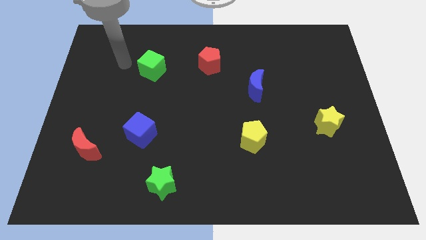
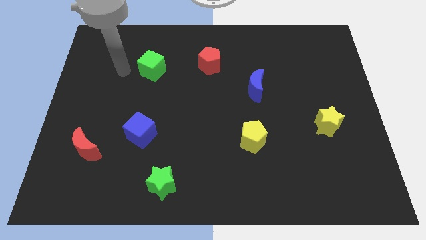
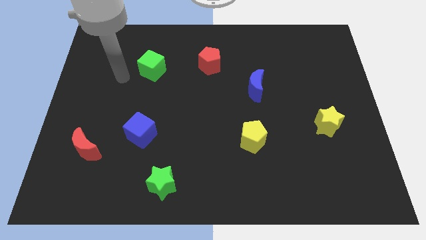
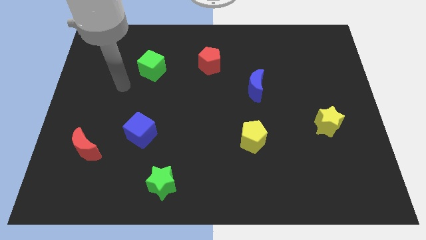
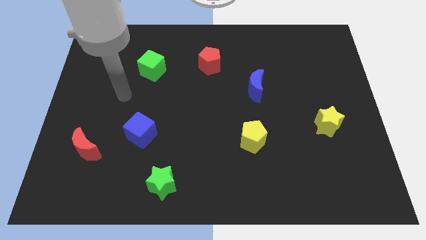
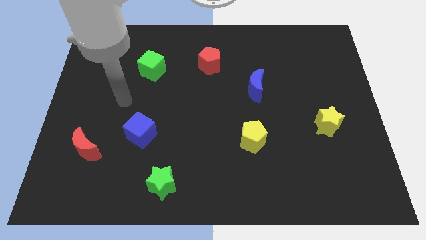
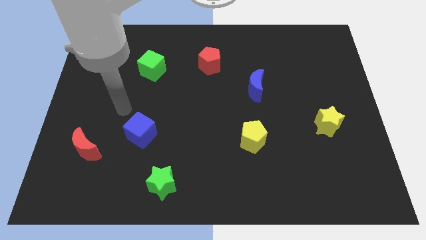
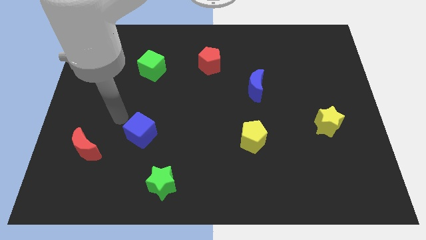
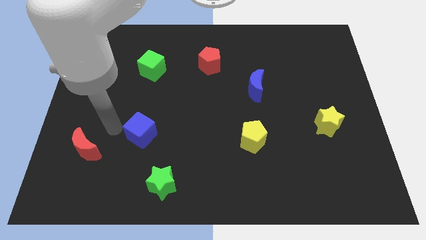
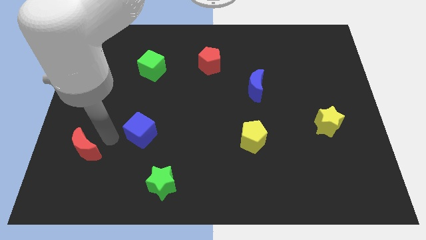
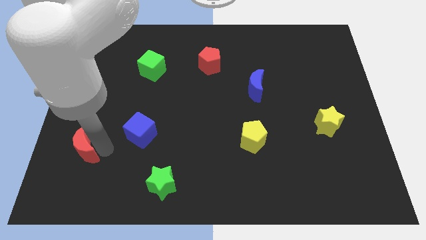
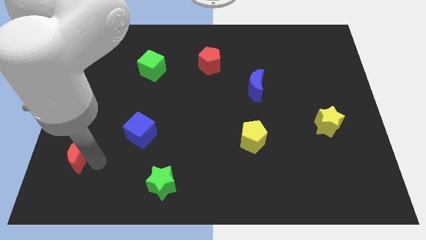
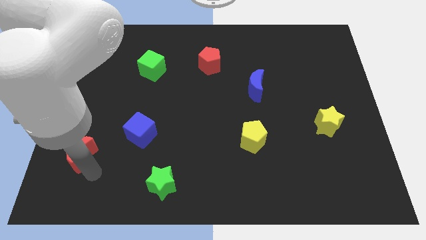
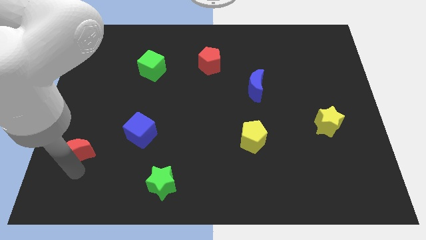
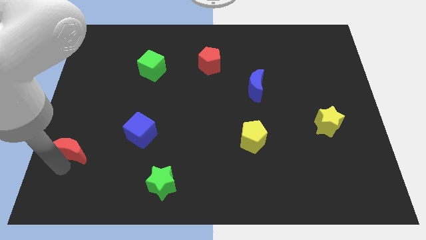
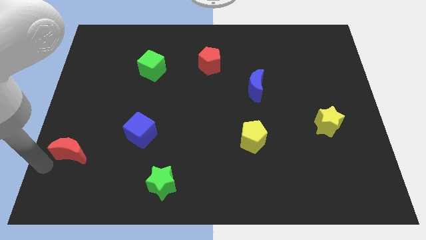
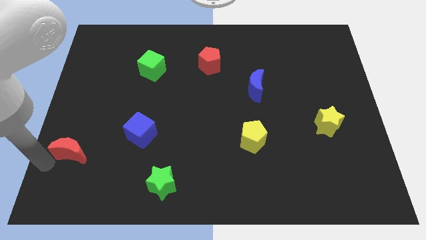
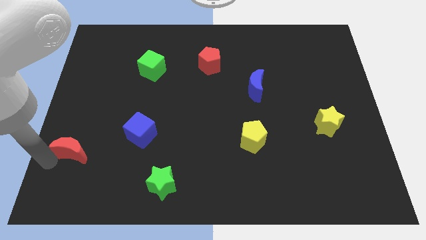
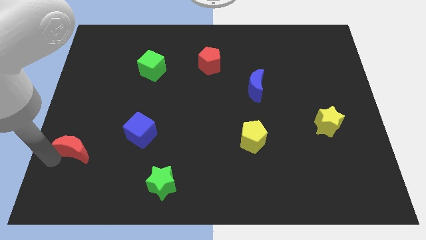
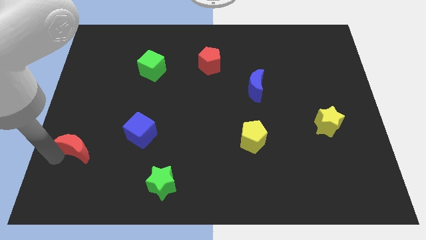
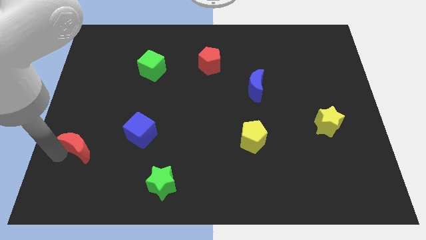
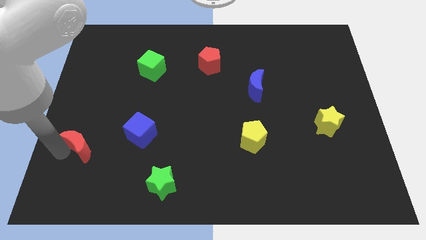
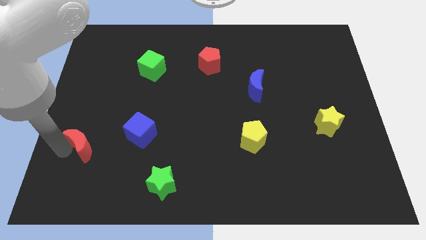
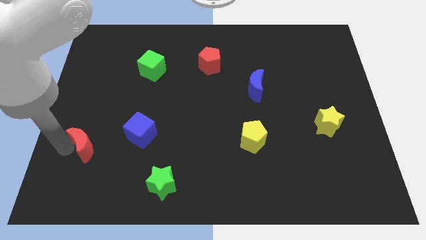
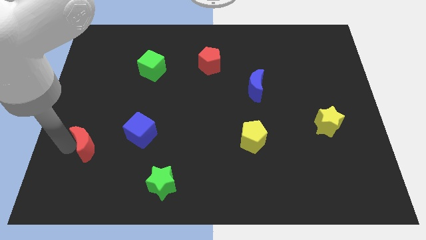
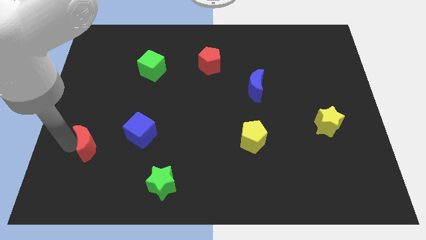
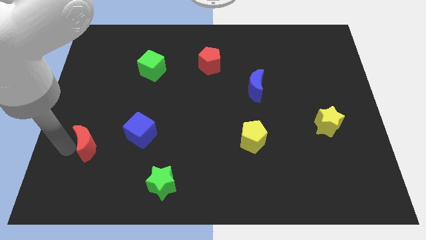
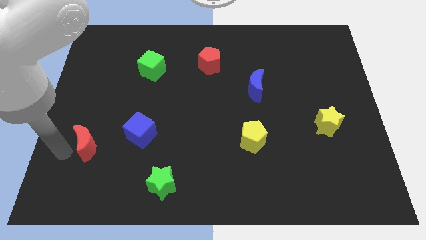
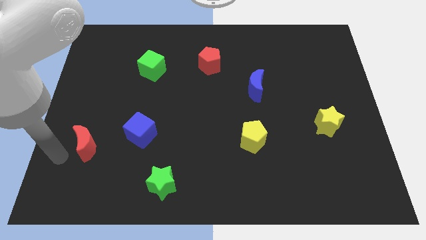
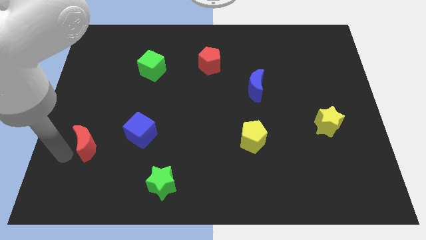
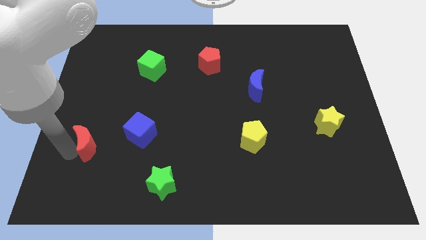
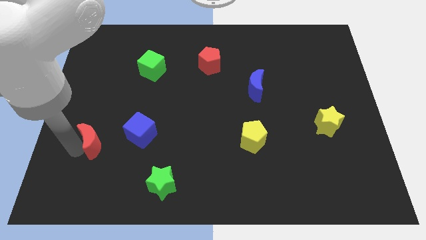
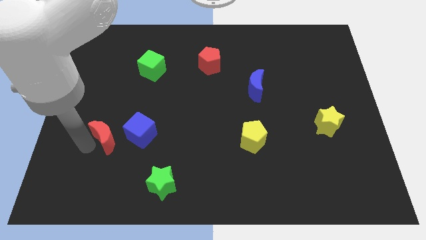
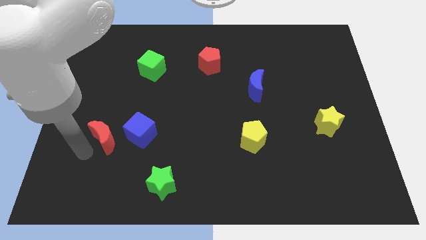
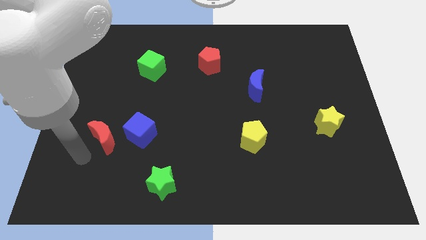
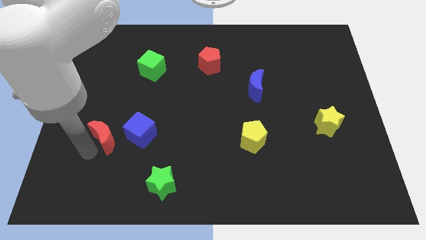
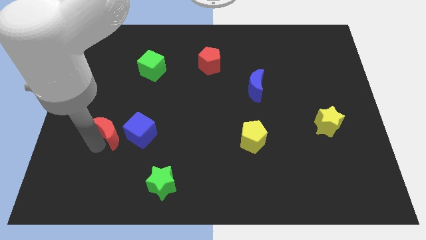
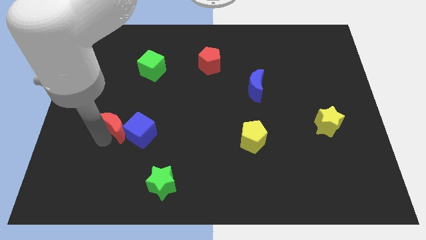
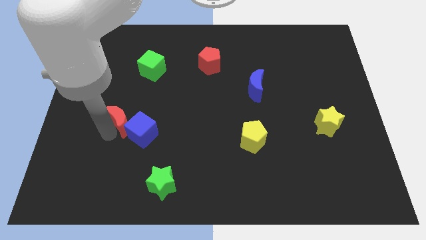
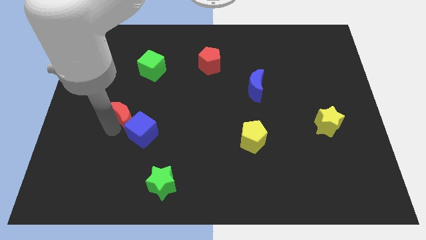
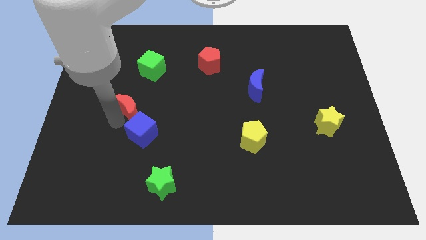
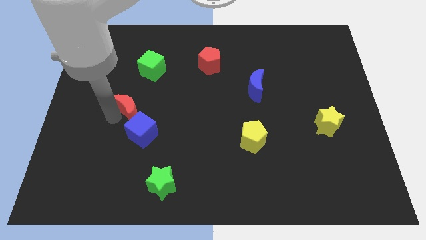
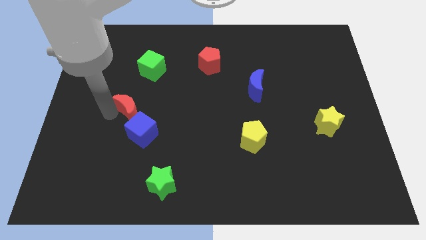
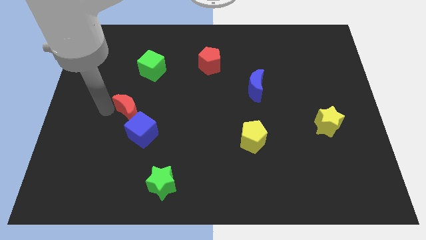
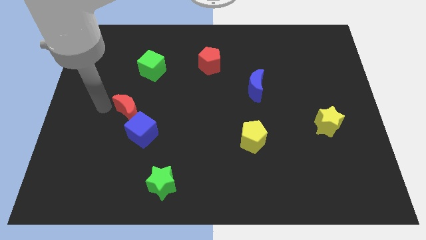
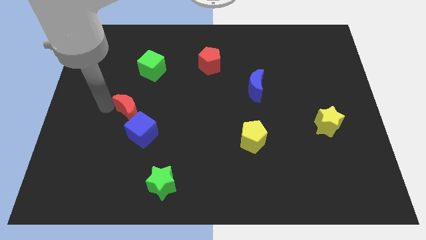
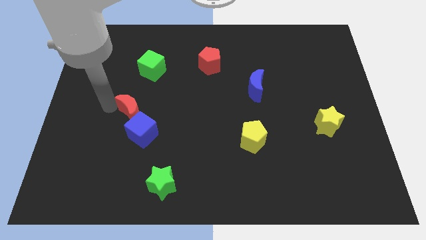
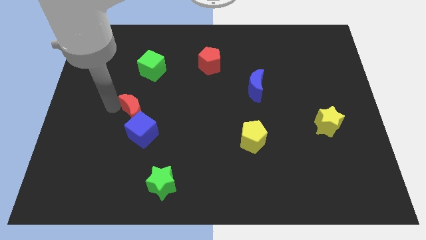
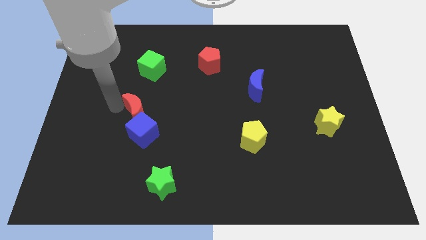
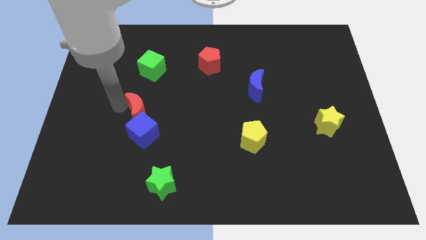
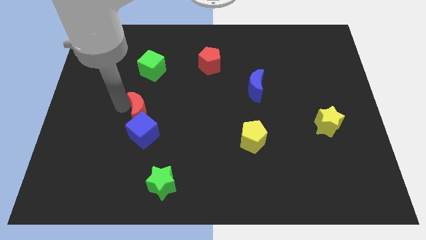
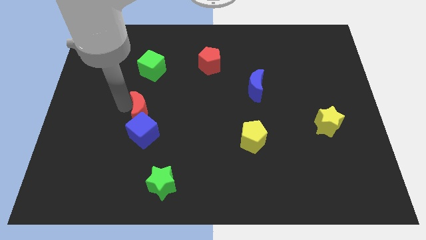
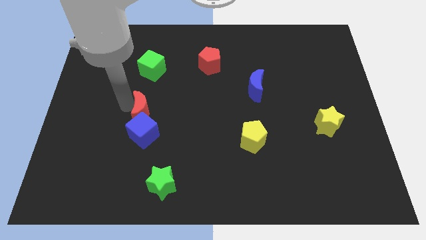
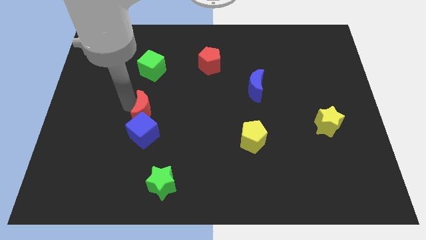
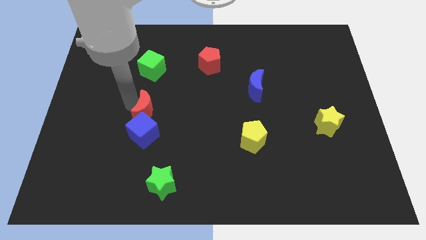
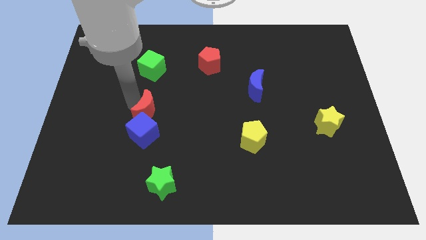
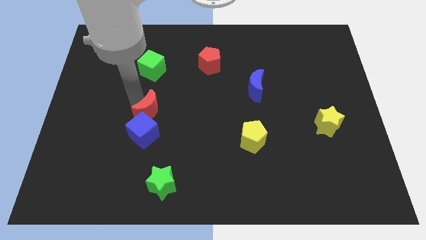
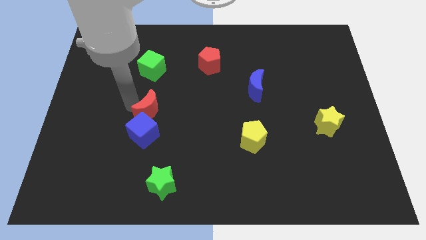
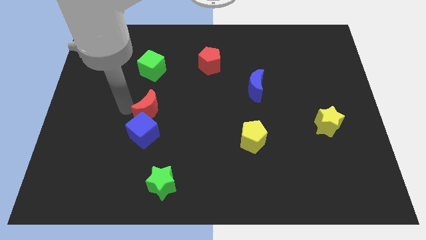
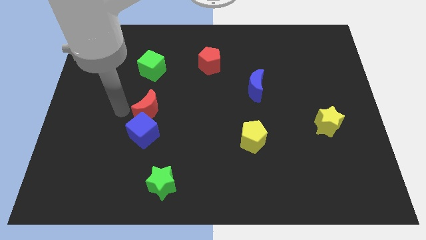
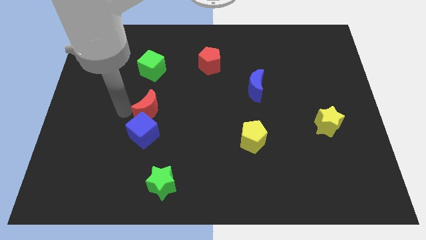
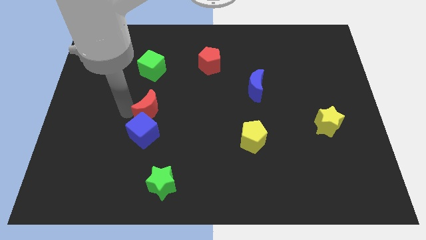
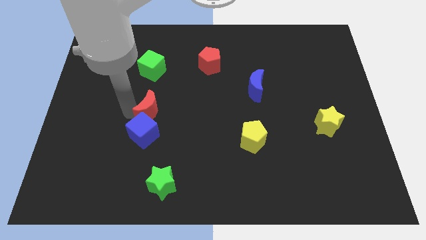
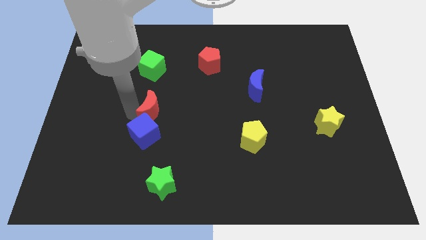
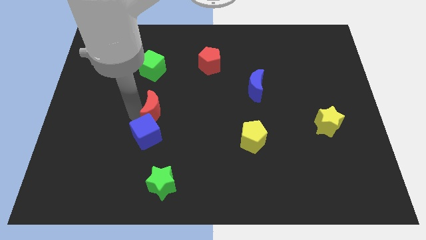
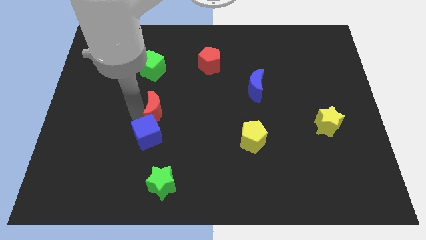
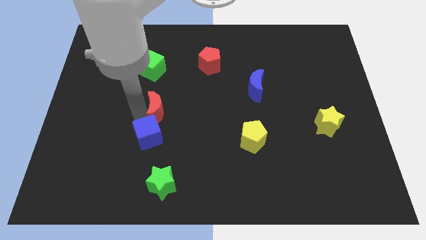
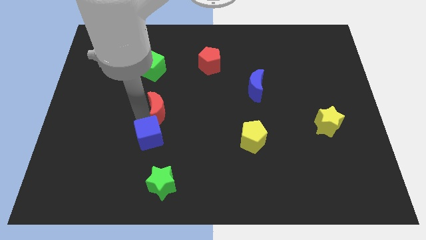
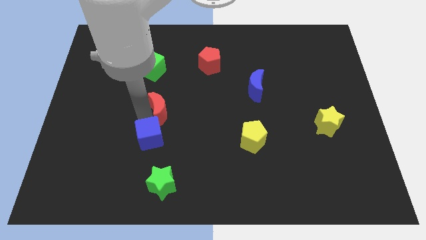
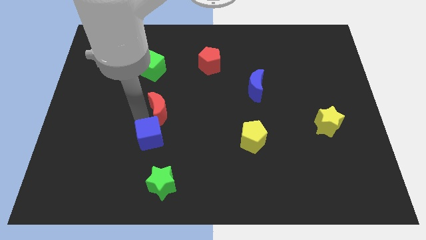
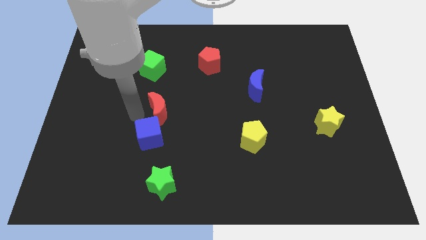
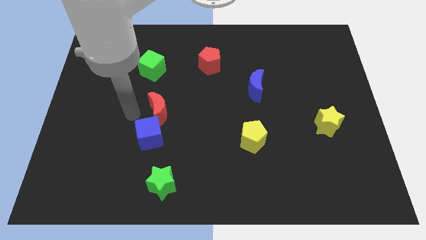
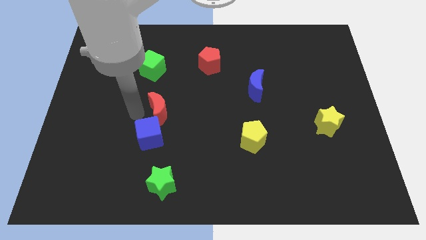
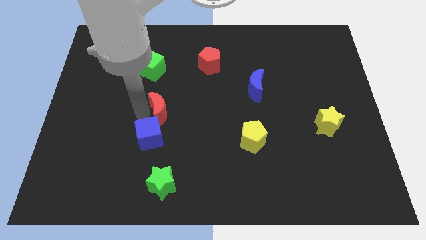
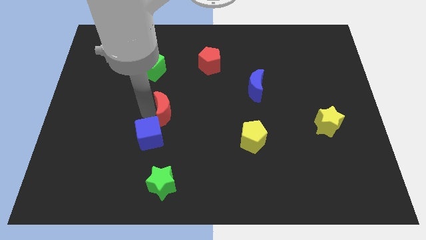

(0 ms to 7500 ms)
slide the red moon to the center
